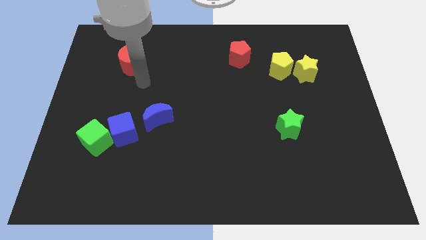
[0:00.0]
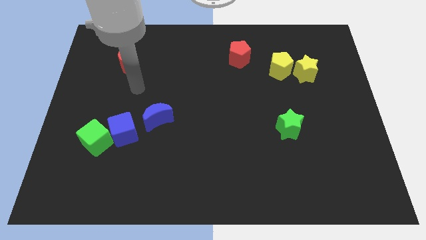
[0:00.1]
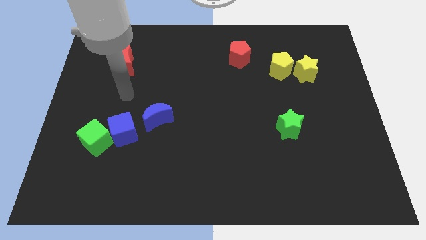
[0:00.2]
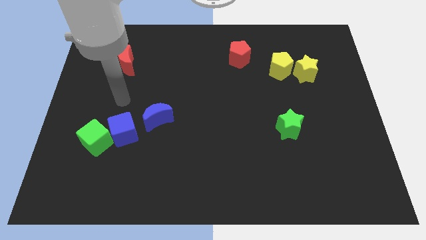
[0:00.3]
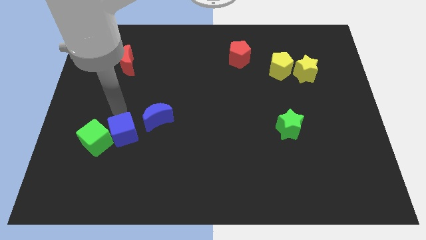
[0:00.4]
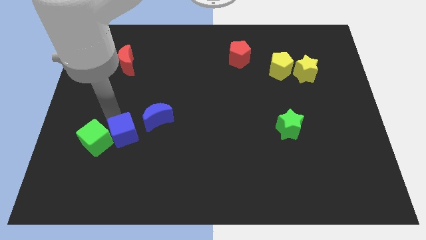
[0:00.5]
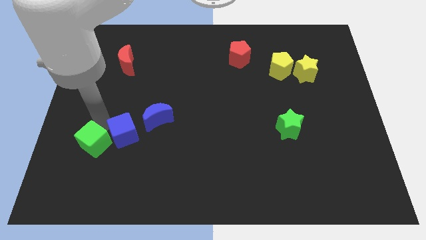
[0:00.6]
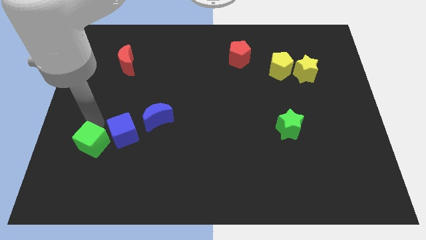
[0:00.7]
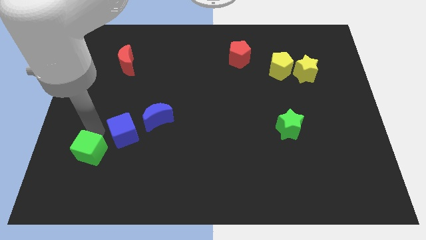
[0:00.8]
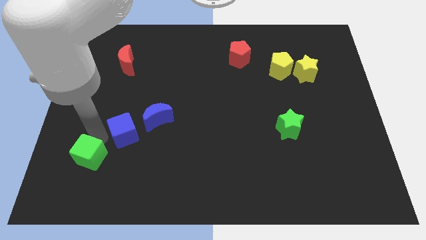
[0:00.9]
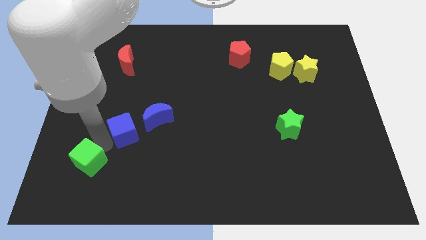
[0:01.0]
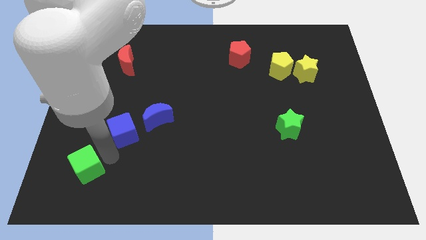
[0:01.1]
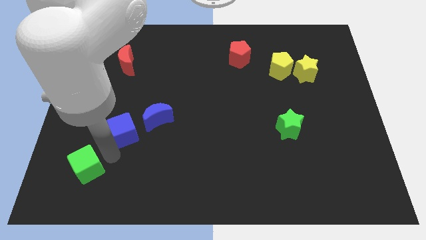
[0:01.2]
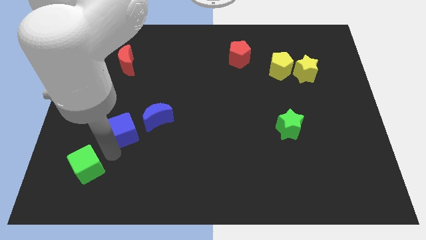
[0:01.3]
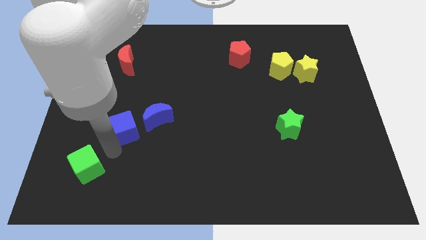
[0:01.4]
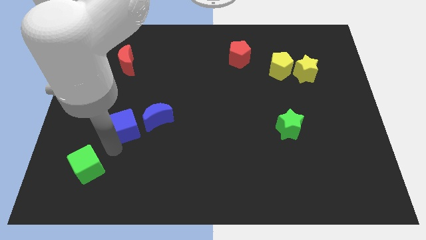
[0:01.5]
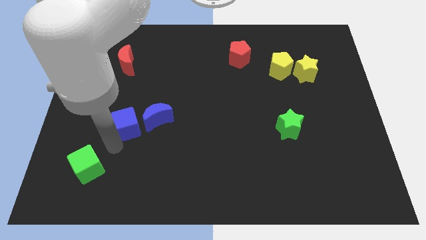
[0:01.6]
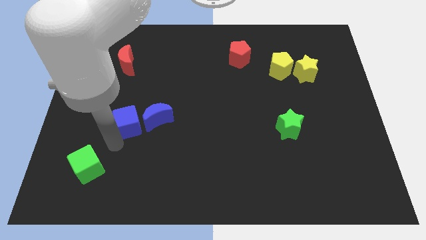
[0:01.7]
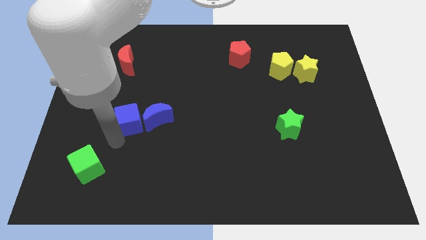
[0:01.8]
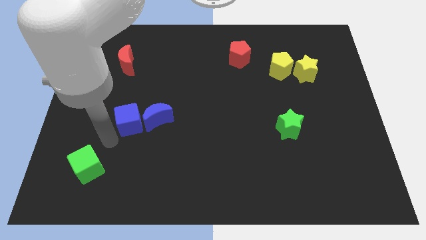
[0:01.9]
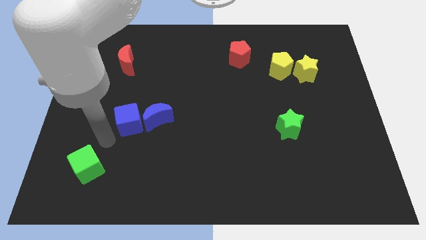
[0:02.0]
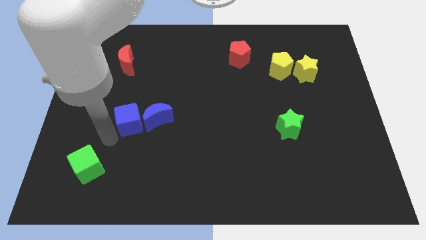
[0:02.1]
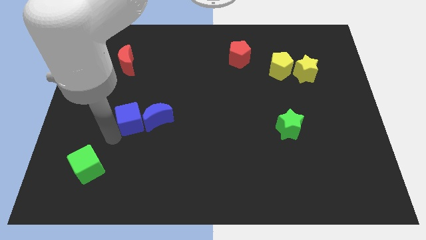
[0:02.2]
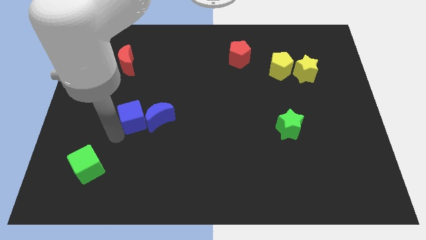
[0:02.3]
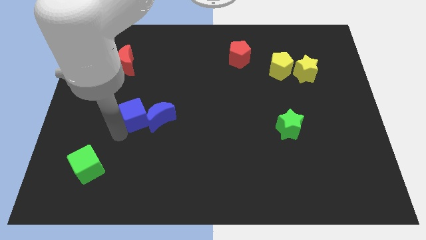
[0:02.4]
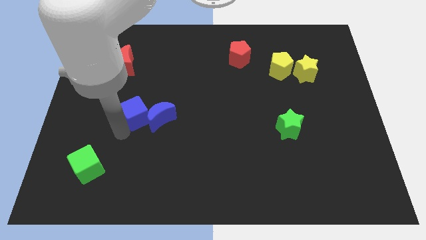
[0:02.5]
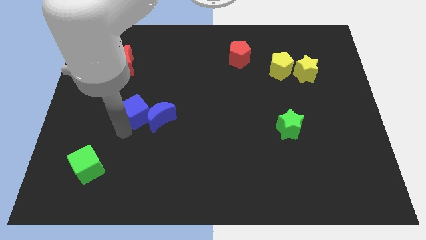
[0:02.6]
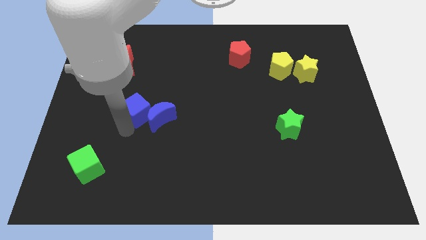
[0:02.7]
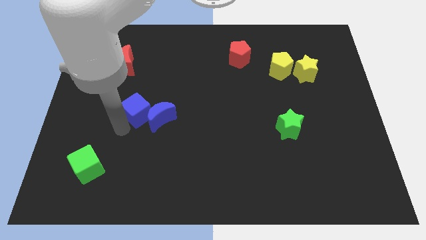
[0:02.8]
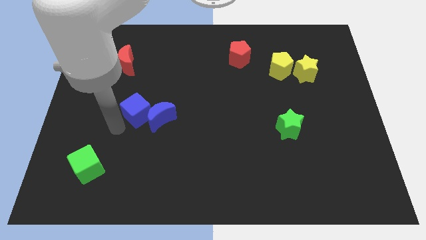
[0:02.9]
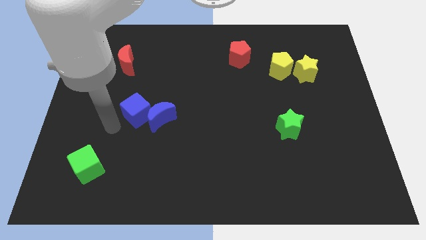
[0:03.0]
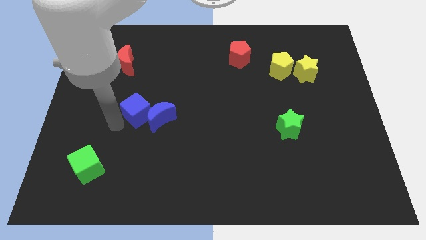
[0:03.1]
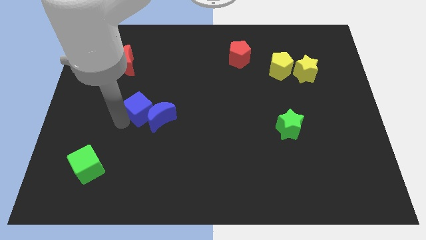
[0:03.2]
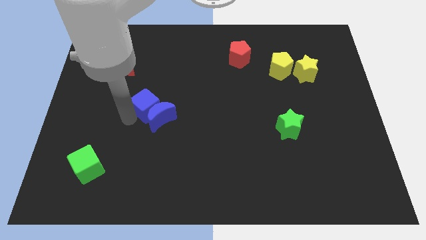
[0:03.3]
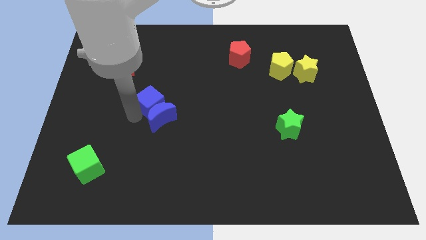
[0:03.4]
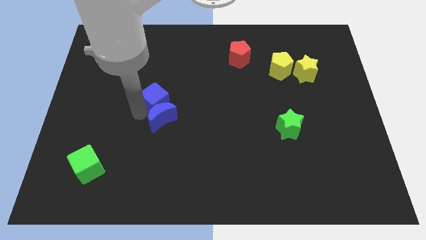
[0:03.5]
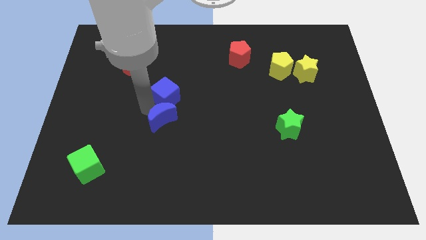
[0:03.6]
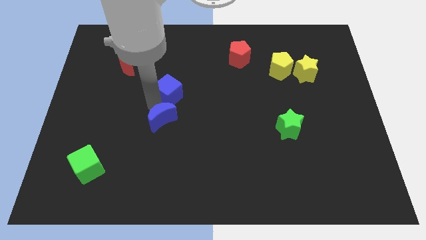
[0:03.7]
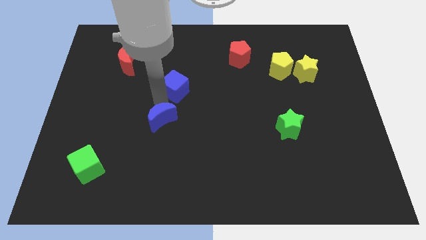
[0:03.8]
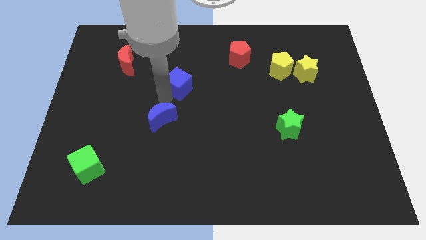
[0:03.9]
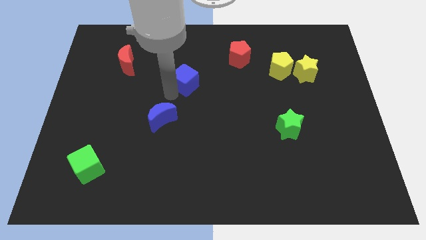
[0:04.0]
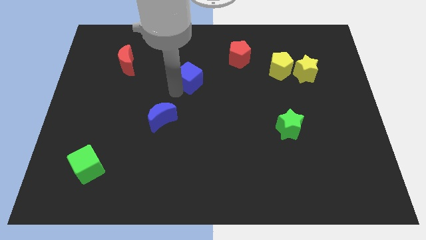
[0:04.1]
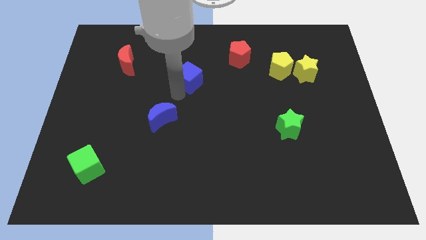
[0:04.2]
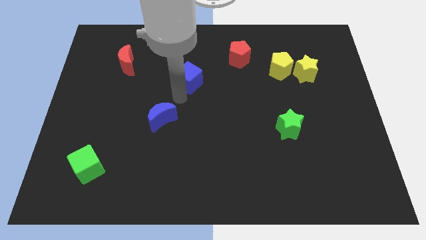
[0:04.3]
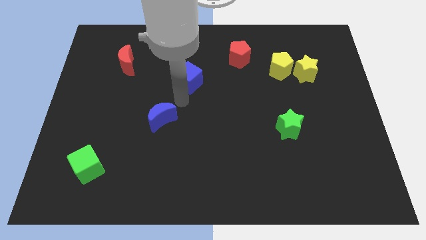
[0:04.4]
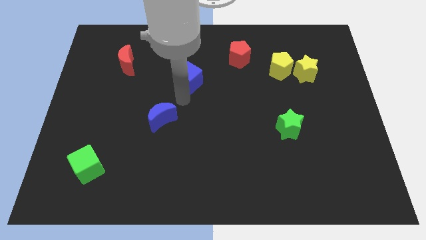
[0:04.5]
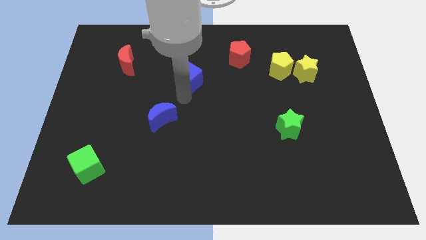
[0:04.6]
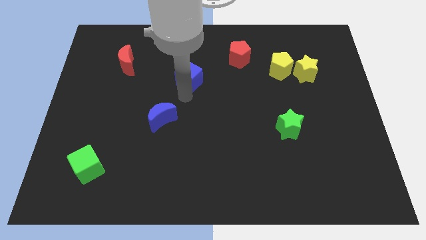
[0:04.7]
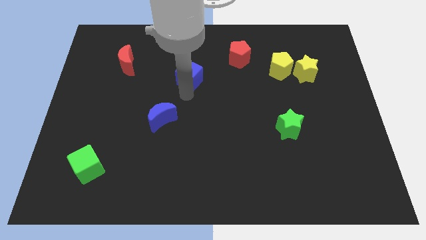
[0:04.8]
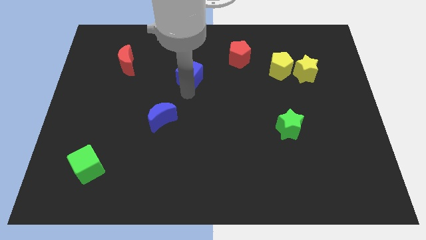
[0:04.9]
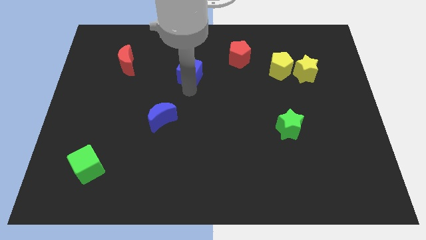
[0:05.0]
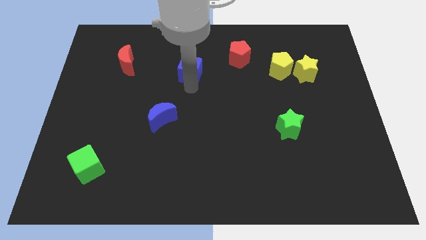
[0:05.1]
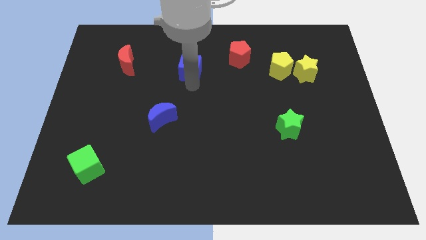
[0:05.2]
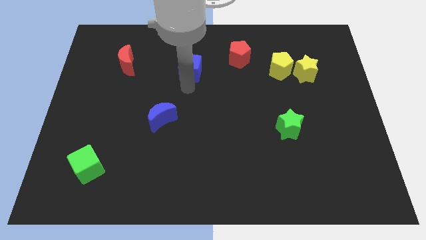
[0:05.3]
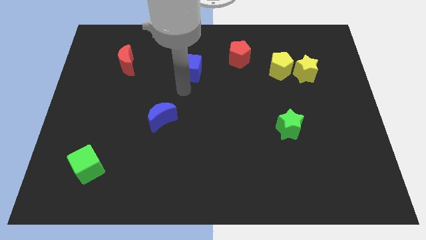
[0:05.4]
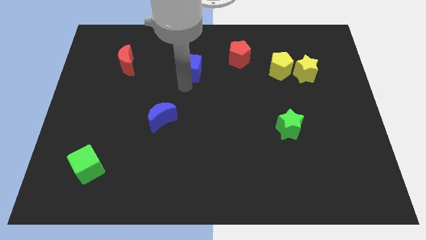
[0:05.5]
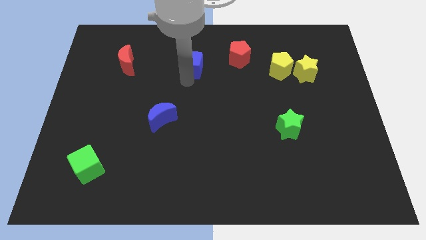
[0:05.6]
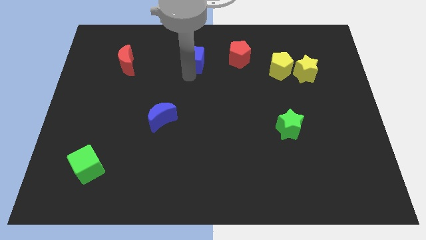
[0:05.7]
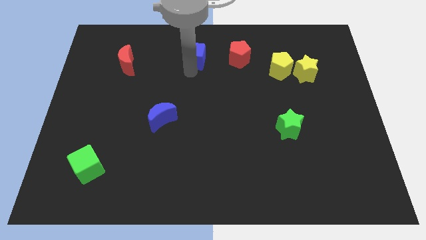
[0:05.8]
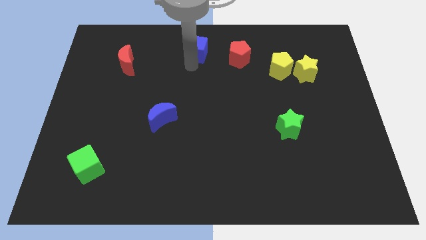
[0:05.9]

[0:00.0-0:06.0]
slide the blue cube to the towards your base

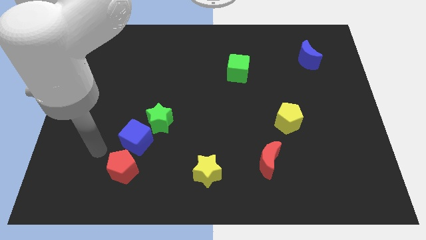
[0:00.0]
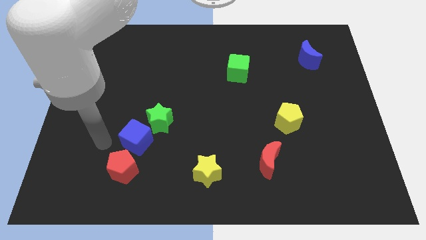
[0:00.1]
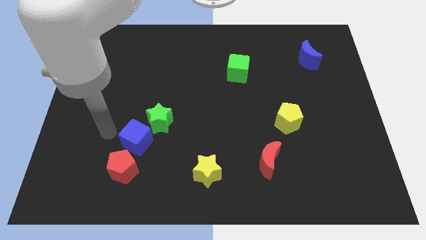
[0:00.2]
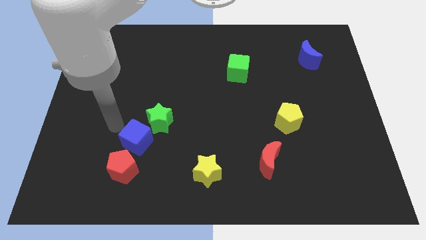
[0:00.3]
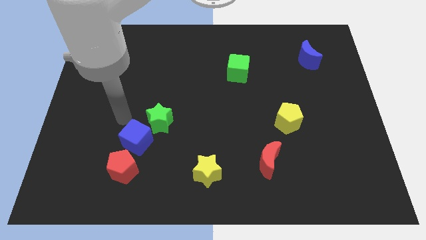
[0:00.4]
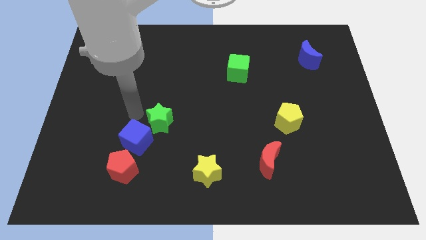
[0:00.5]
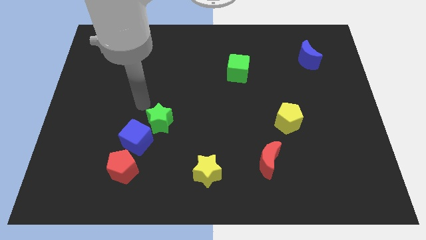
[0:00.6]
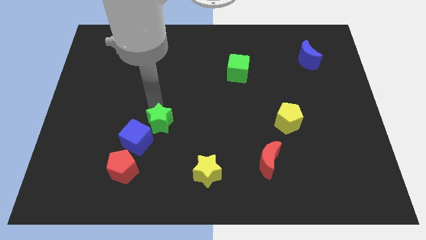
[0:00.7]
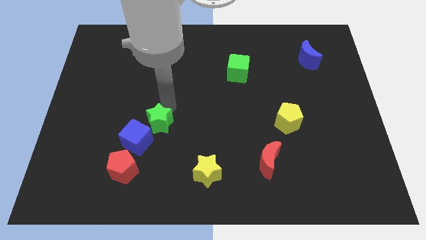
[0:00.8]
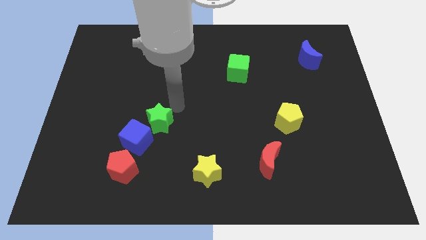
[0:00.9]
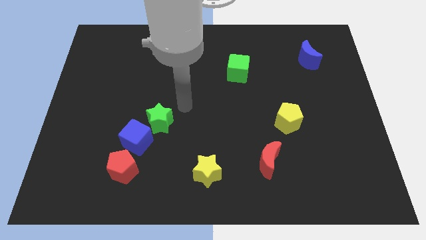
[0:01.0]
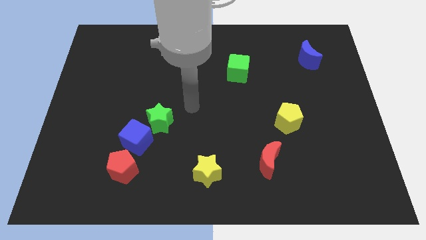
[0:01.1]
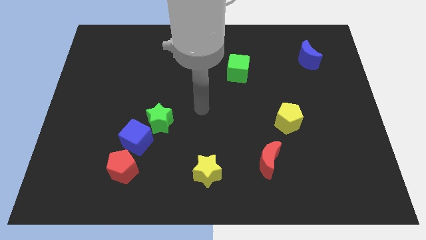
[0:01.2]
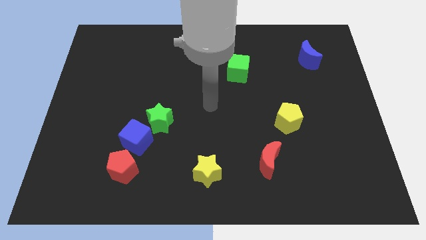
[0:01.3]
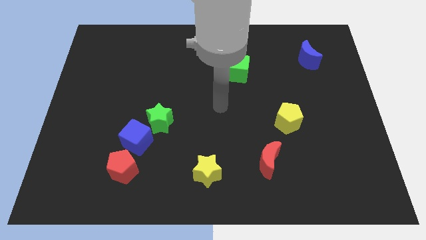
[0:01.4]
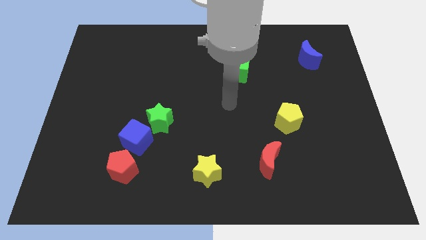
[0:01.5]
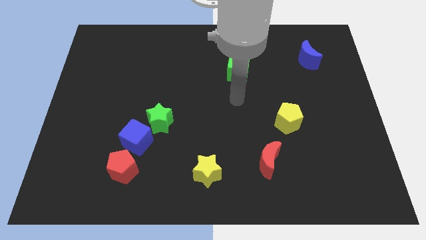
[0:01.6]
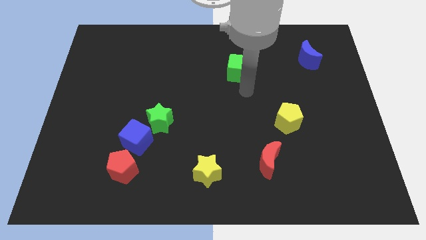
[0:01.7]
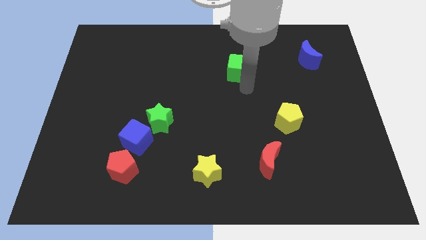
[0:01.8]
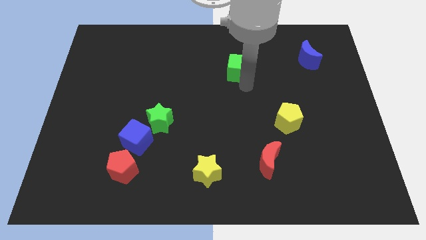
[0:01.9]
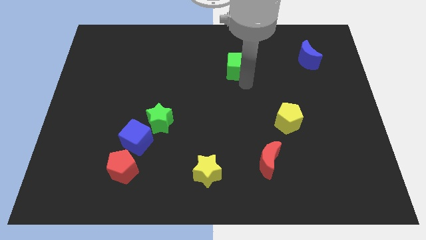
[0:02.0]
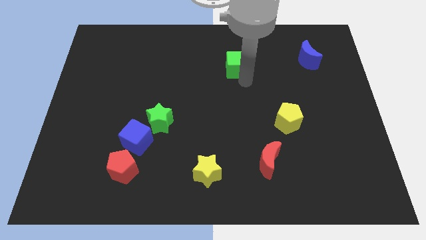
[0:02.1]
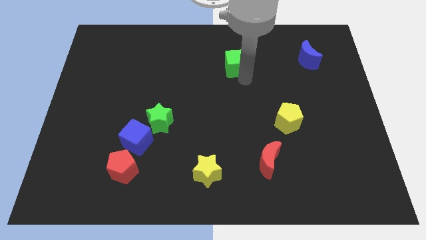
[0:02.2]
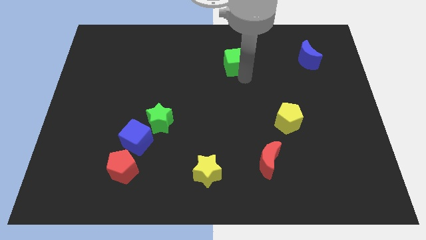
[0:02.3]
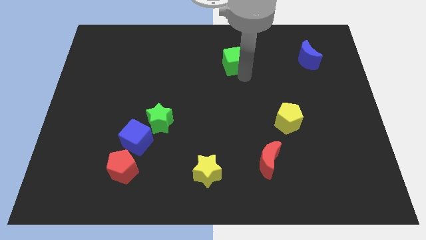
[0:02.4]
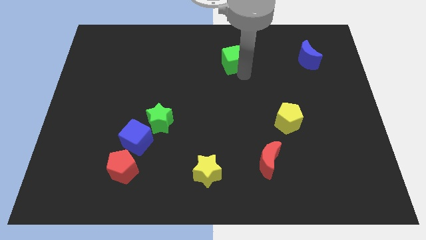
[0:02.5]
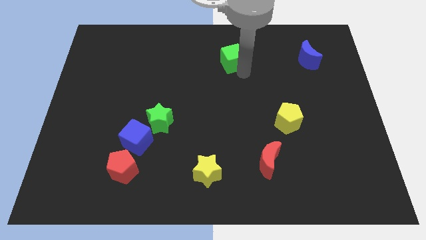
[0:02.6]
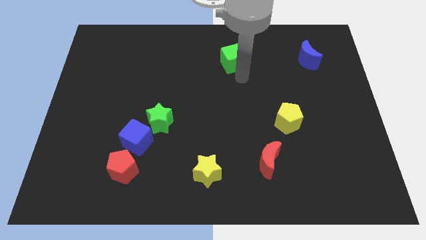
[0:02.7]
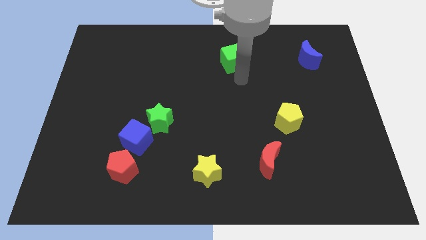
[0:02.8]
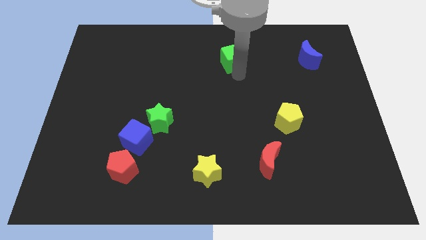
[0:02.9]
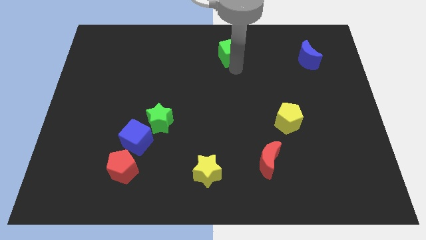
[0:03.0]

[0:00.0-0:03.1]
put the green cube to the towards your base
